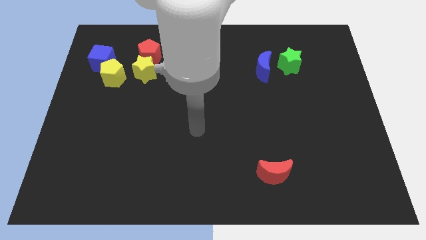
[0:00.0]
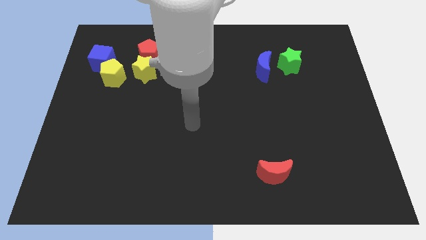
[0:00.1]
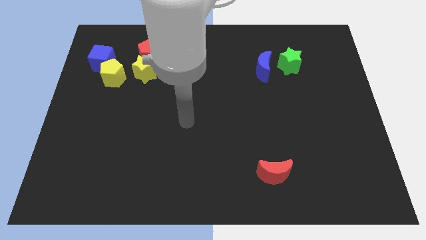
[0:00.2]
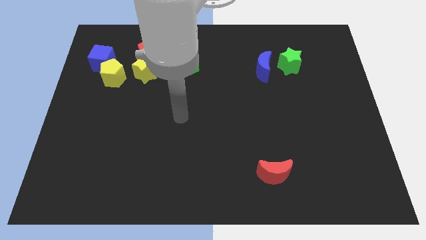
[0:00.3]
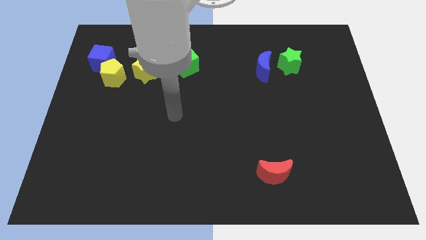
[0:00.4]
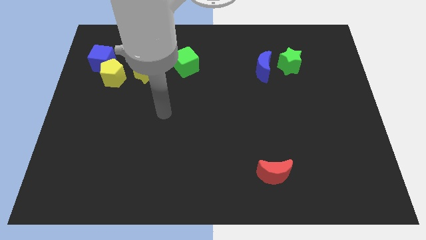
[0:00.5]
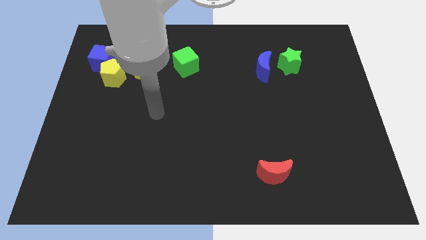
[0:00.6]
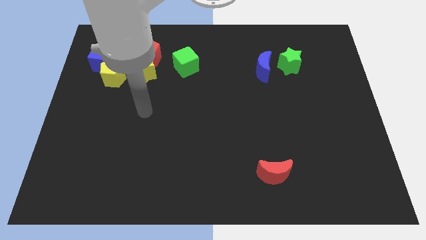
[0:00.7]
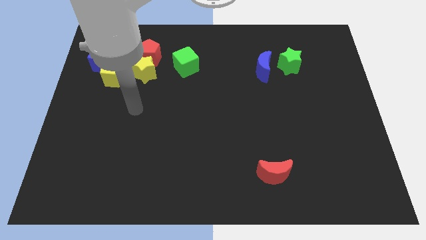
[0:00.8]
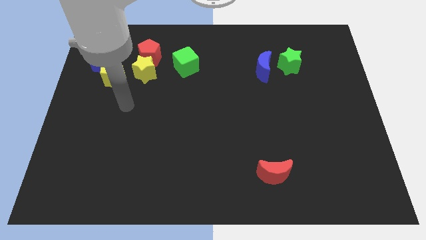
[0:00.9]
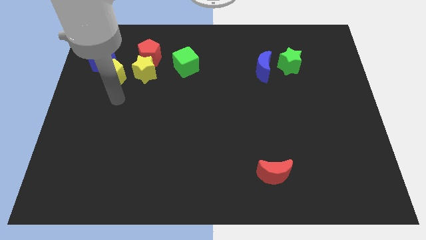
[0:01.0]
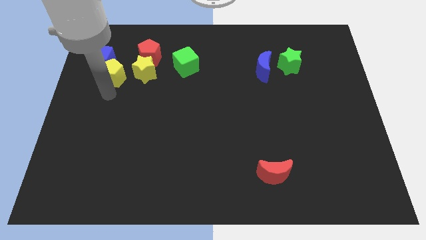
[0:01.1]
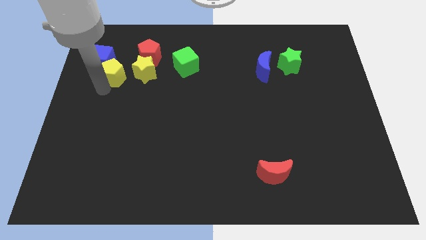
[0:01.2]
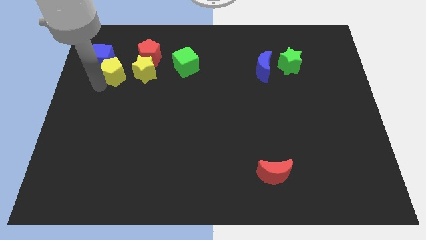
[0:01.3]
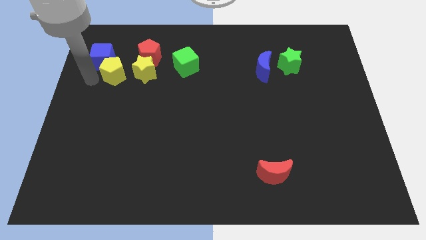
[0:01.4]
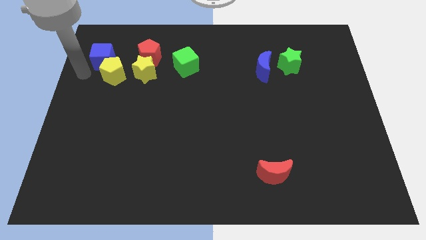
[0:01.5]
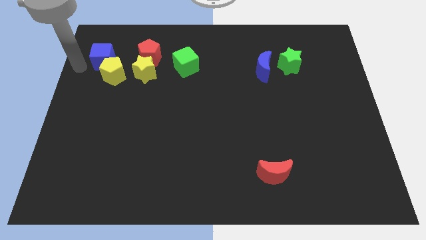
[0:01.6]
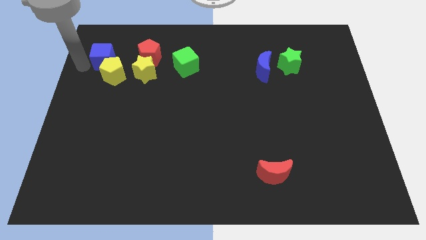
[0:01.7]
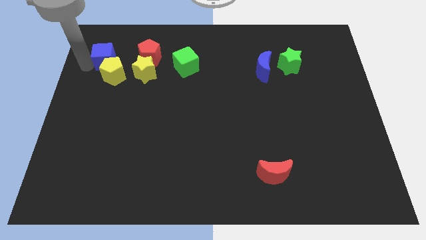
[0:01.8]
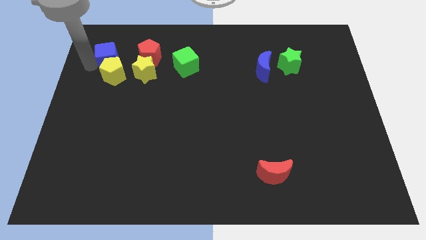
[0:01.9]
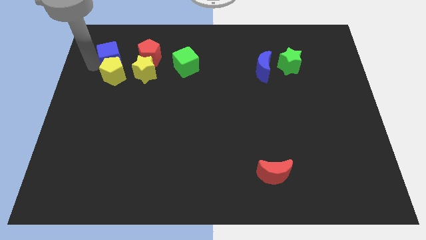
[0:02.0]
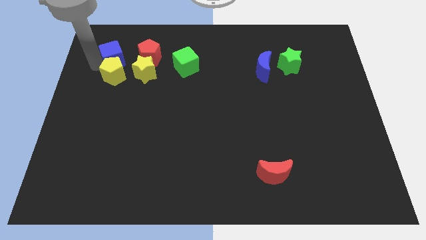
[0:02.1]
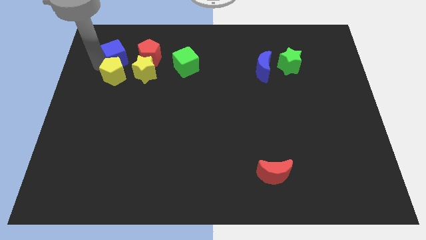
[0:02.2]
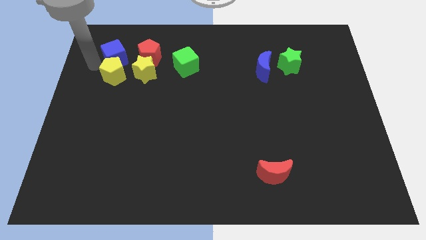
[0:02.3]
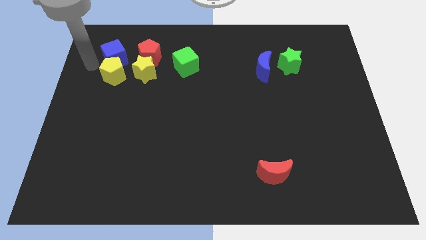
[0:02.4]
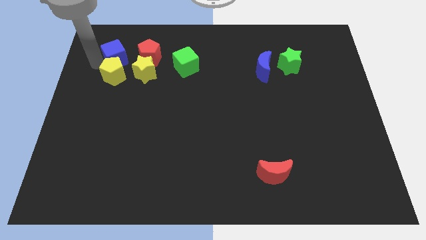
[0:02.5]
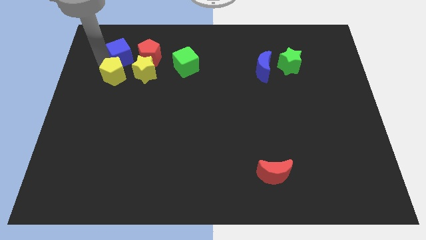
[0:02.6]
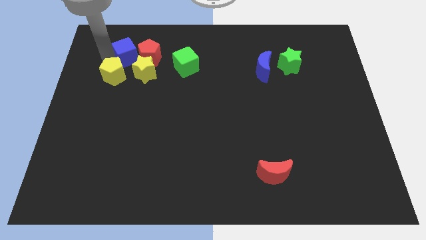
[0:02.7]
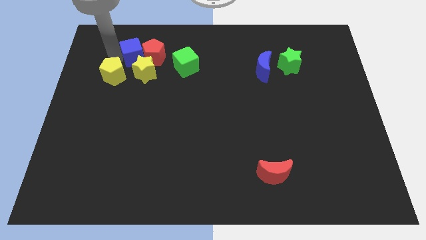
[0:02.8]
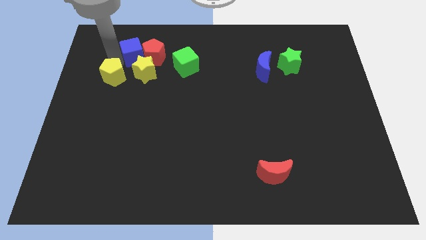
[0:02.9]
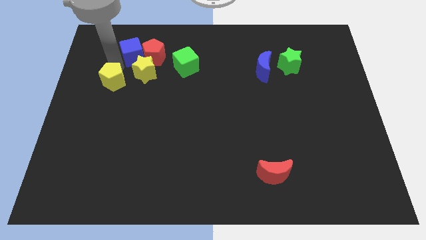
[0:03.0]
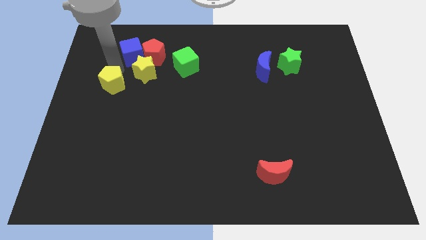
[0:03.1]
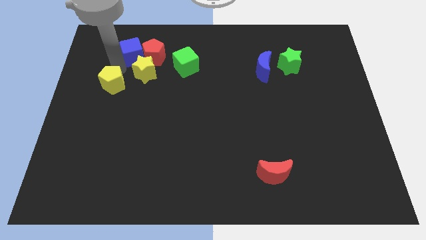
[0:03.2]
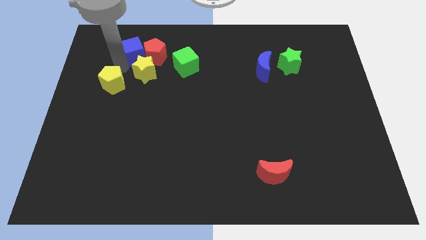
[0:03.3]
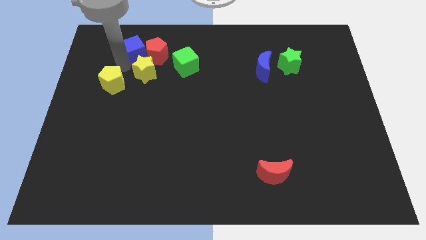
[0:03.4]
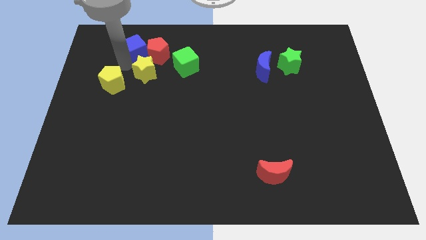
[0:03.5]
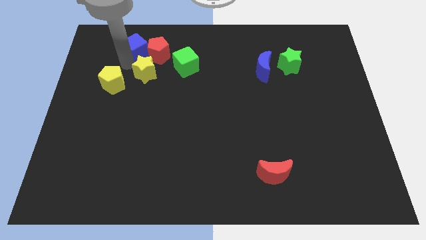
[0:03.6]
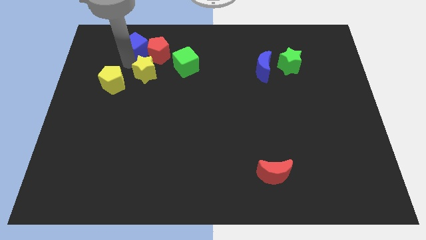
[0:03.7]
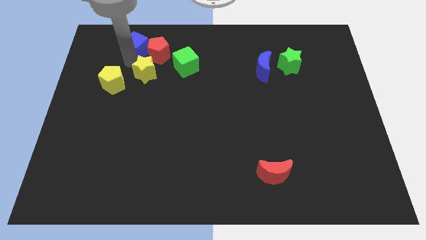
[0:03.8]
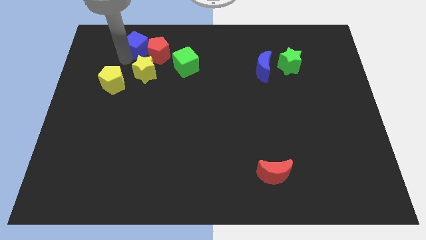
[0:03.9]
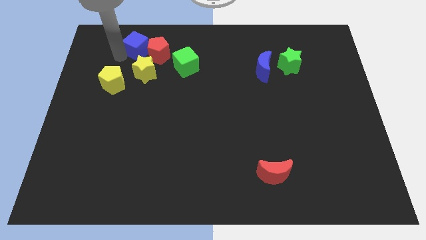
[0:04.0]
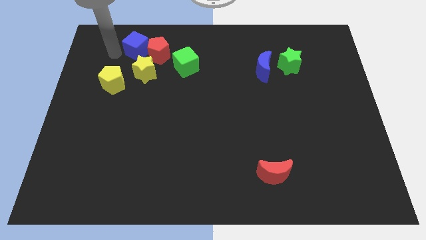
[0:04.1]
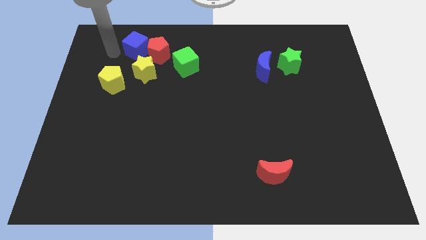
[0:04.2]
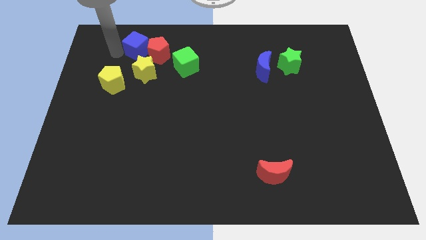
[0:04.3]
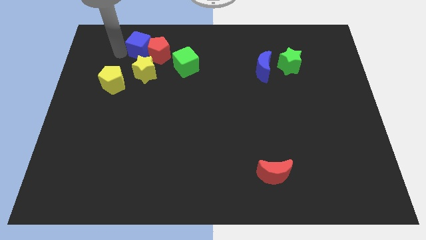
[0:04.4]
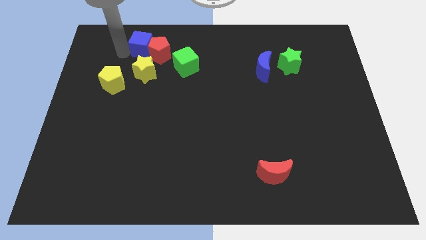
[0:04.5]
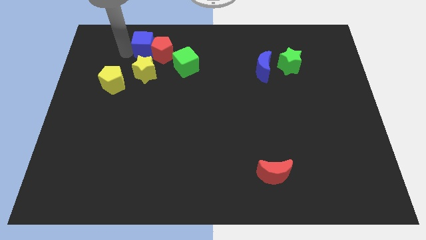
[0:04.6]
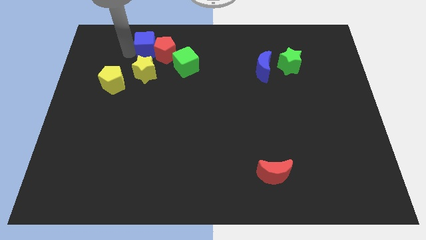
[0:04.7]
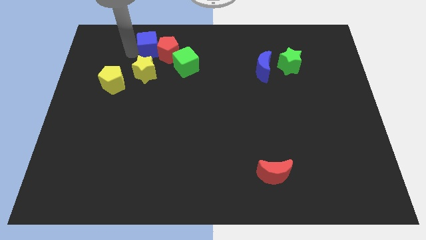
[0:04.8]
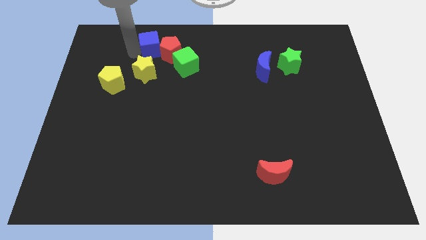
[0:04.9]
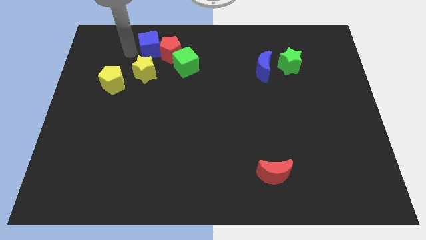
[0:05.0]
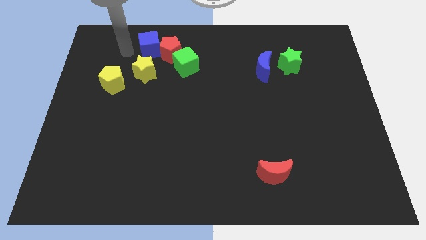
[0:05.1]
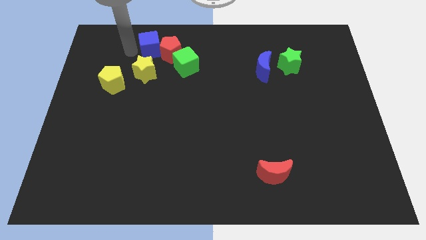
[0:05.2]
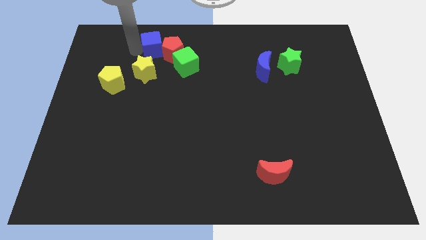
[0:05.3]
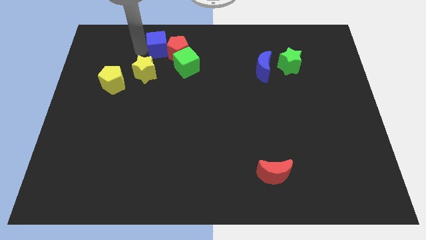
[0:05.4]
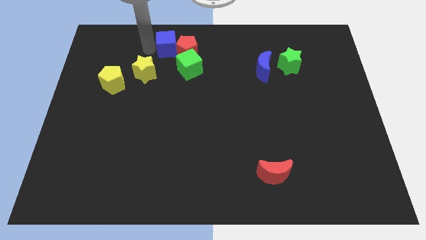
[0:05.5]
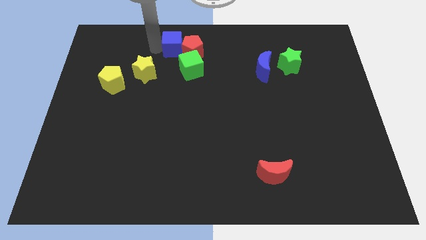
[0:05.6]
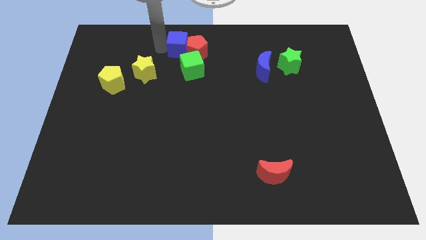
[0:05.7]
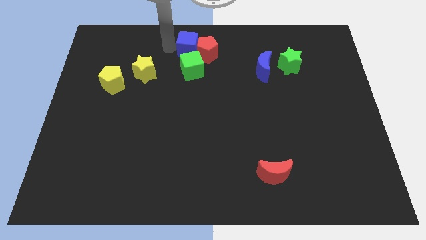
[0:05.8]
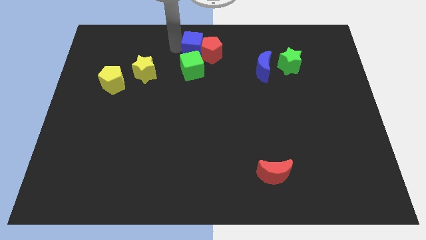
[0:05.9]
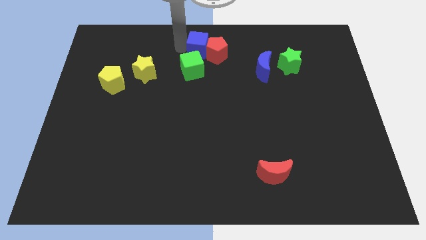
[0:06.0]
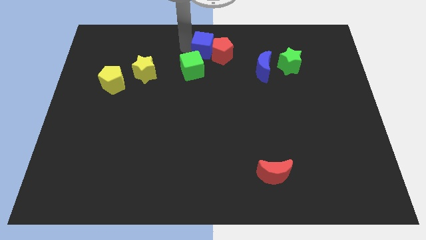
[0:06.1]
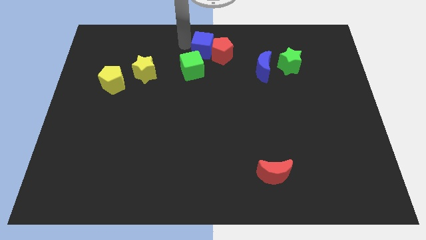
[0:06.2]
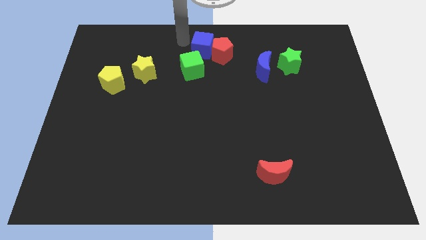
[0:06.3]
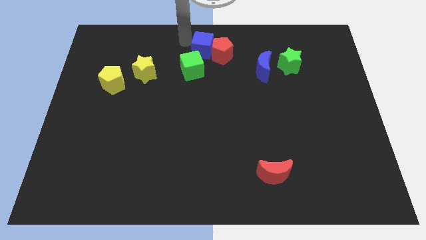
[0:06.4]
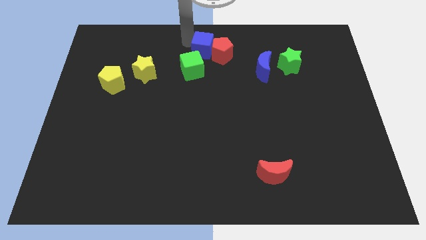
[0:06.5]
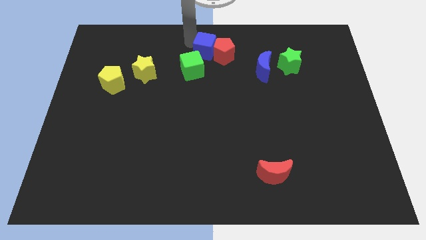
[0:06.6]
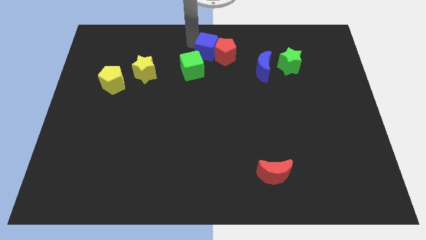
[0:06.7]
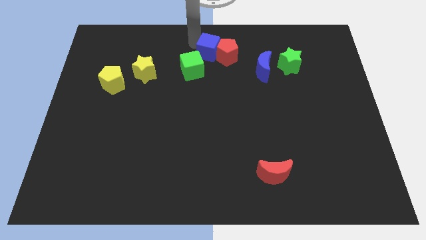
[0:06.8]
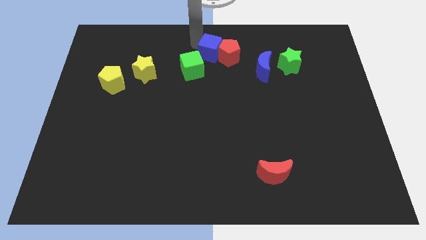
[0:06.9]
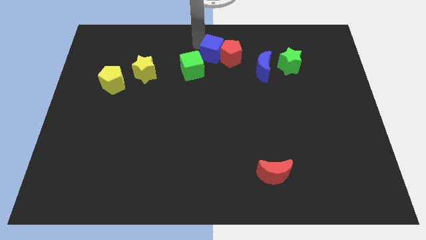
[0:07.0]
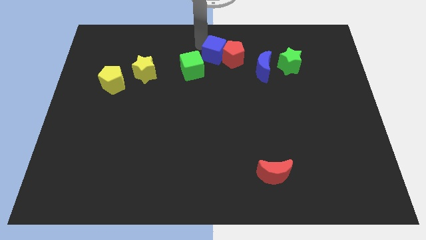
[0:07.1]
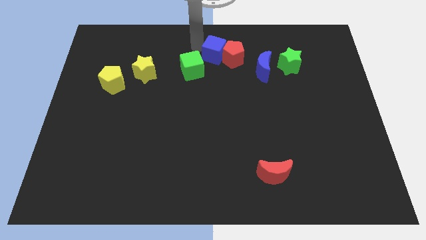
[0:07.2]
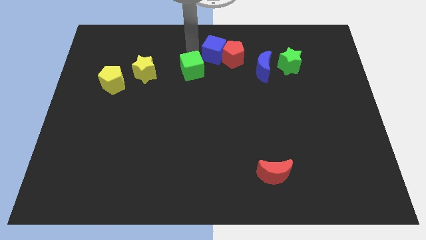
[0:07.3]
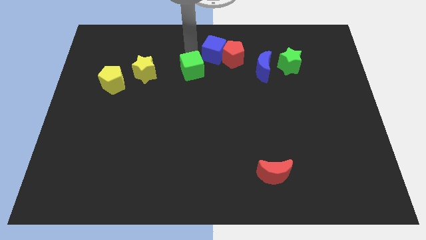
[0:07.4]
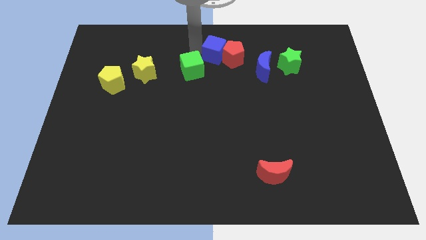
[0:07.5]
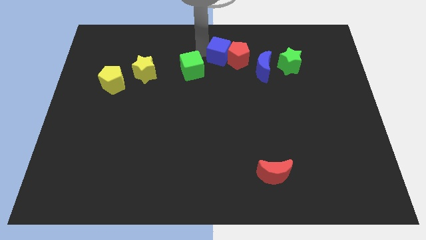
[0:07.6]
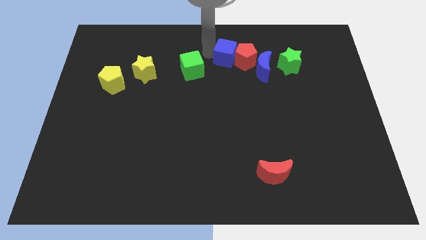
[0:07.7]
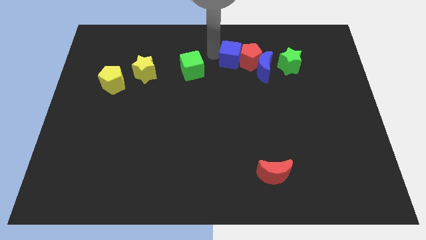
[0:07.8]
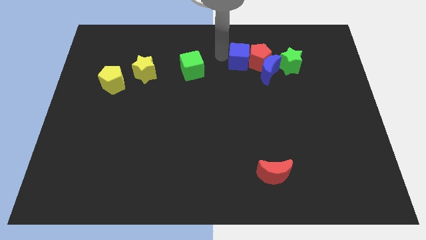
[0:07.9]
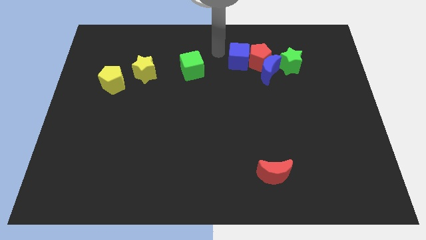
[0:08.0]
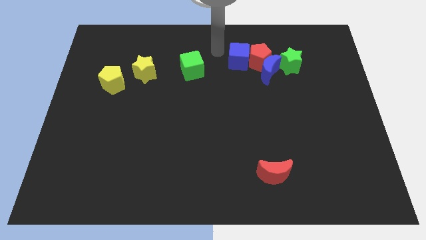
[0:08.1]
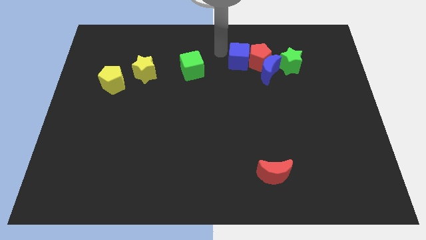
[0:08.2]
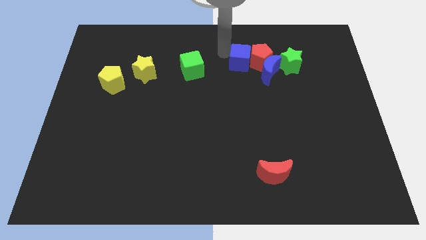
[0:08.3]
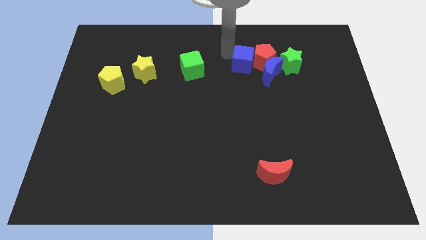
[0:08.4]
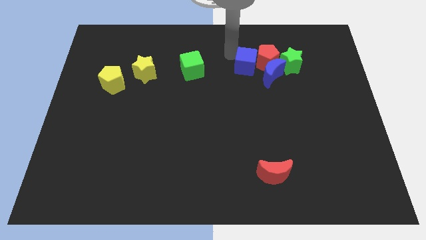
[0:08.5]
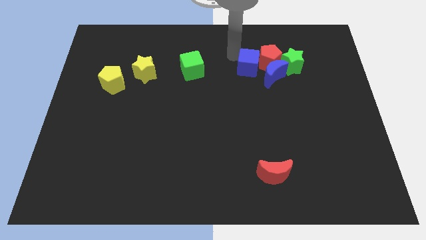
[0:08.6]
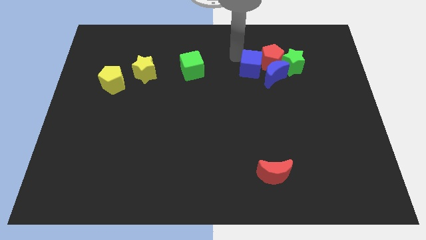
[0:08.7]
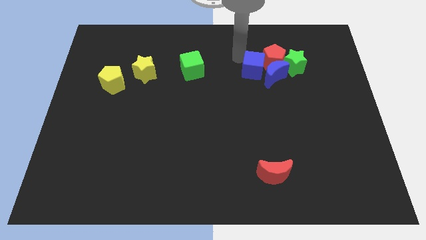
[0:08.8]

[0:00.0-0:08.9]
put the blue cube next to the blue moon
